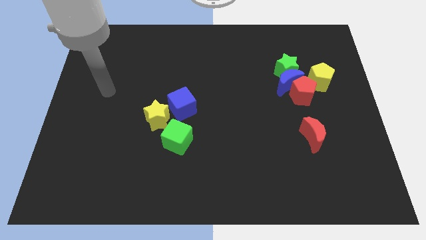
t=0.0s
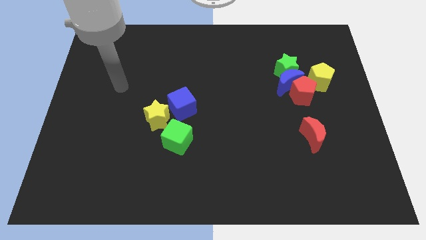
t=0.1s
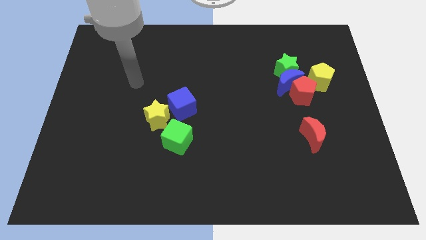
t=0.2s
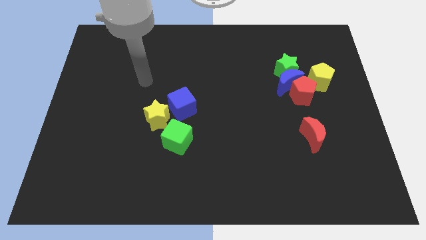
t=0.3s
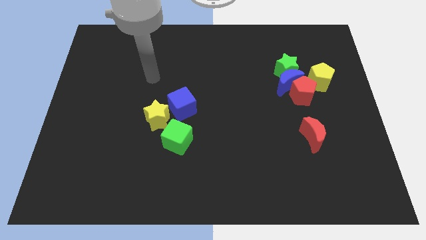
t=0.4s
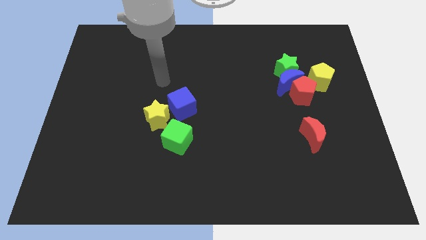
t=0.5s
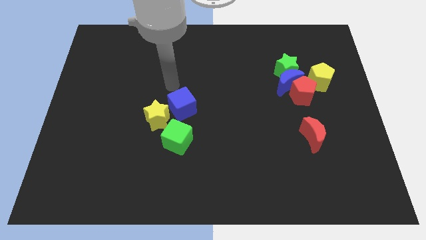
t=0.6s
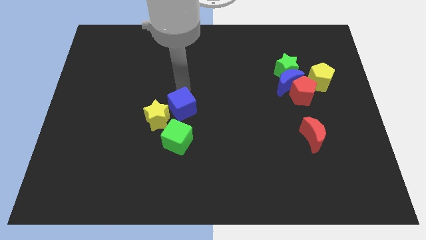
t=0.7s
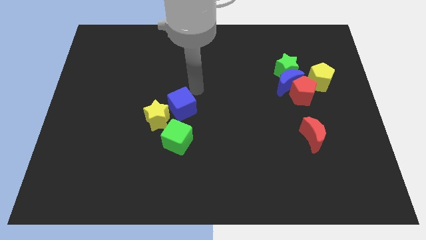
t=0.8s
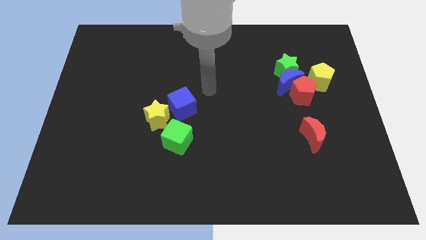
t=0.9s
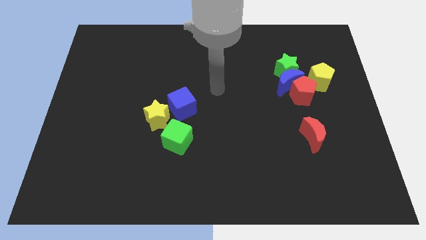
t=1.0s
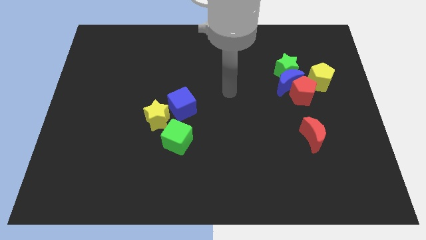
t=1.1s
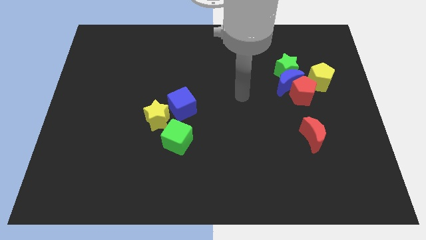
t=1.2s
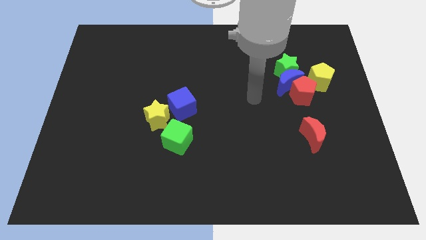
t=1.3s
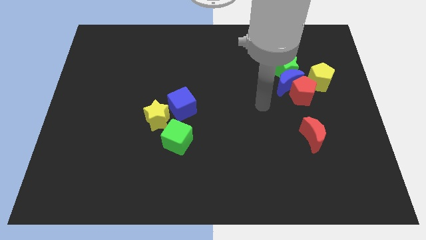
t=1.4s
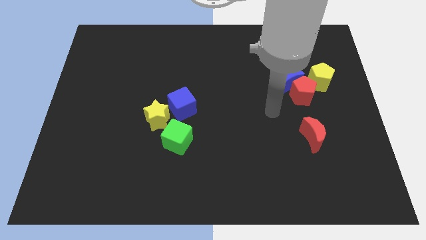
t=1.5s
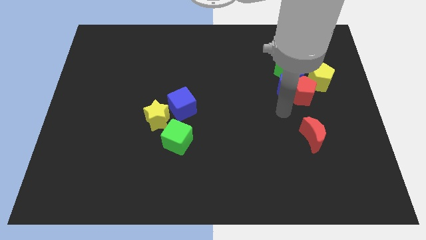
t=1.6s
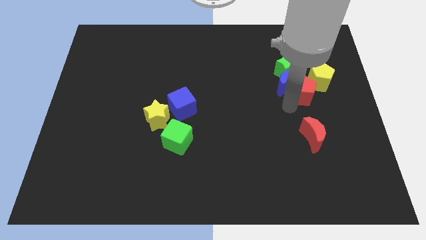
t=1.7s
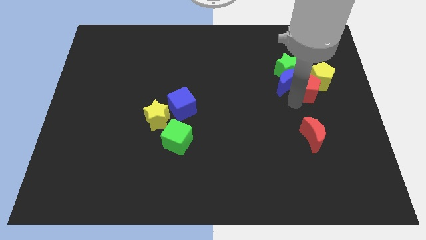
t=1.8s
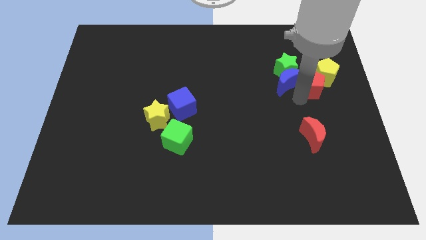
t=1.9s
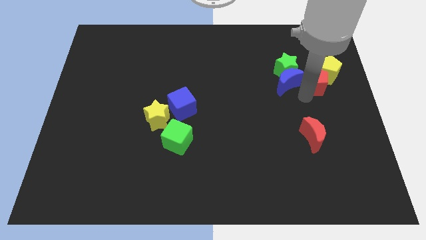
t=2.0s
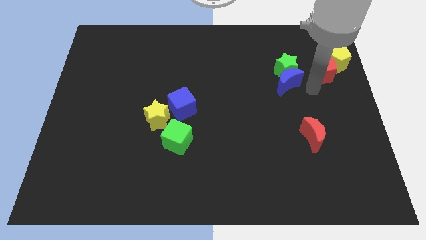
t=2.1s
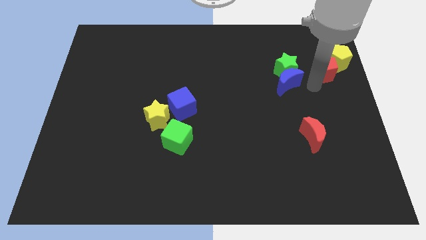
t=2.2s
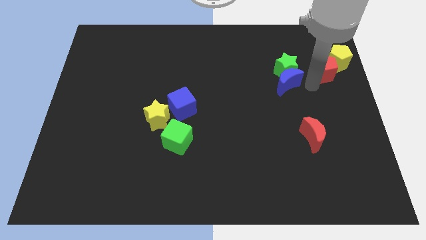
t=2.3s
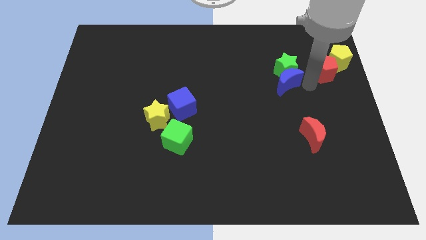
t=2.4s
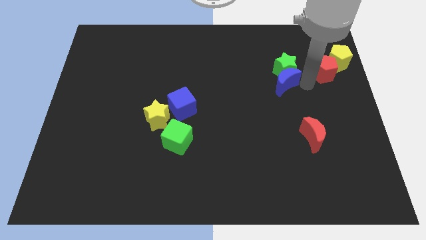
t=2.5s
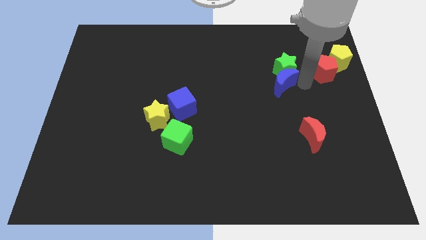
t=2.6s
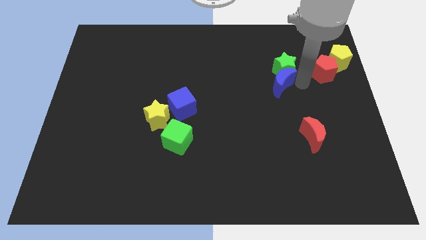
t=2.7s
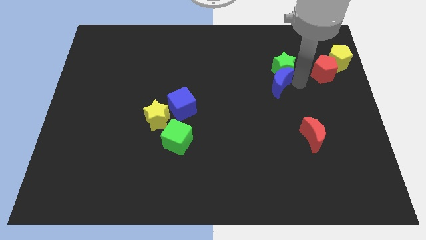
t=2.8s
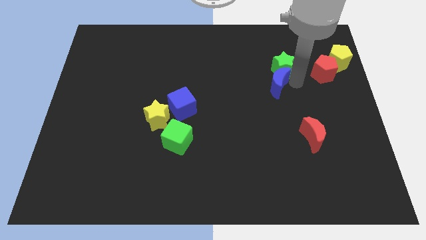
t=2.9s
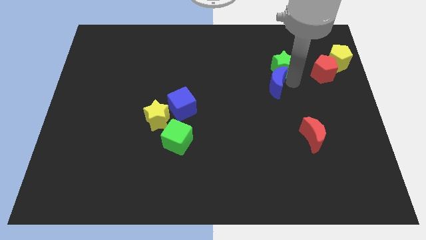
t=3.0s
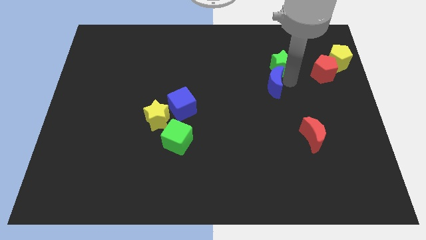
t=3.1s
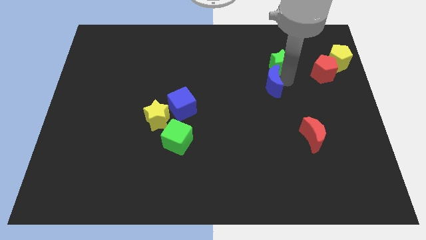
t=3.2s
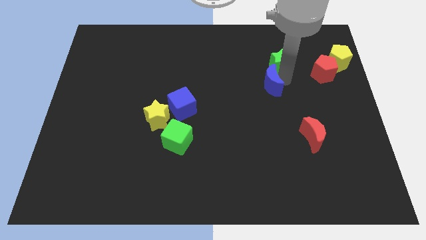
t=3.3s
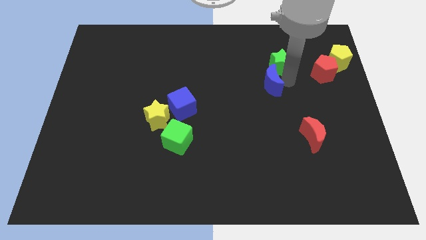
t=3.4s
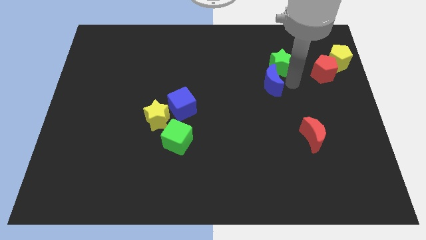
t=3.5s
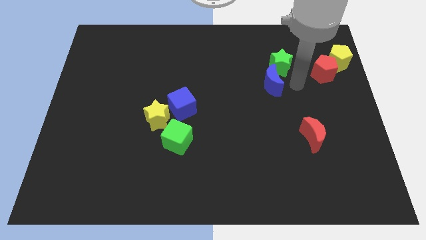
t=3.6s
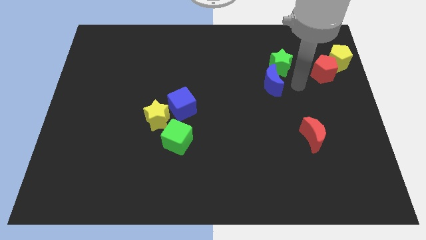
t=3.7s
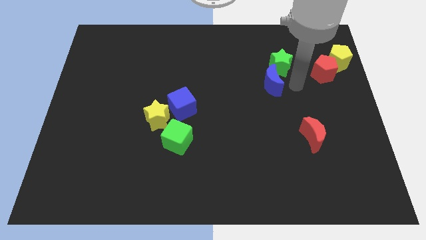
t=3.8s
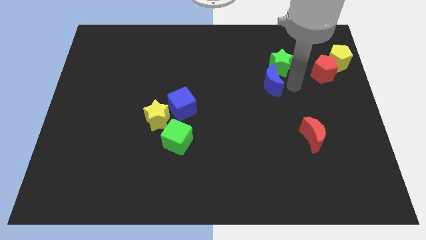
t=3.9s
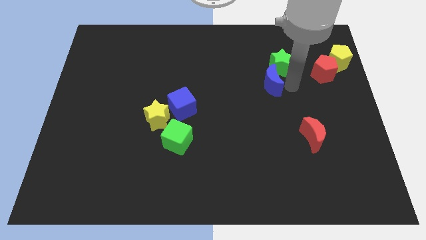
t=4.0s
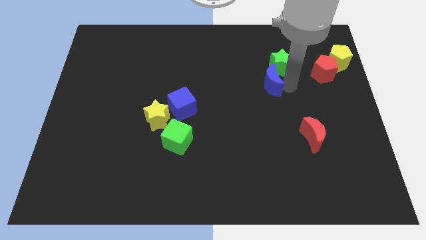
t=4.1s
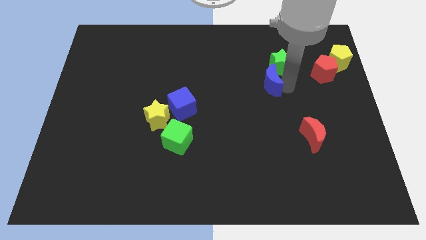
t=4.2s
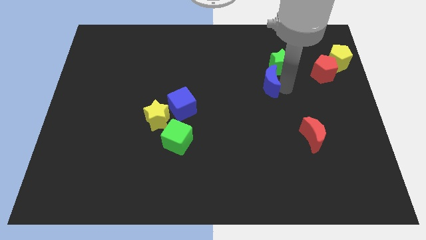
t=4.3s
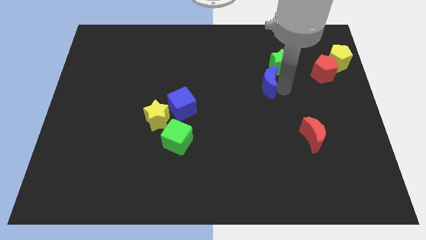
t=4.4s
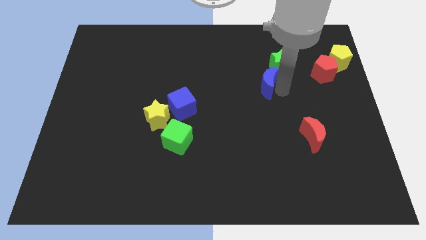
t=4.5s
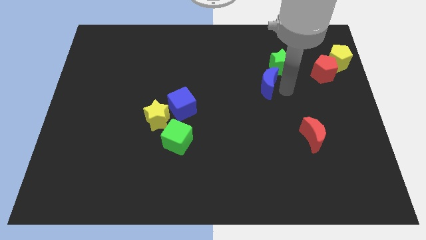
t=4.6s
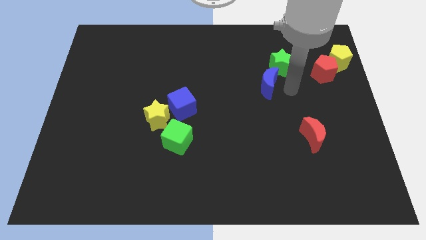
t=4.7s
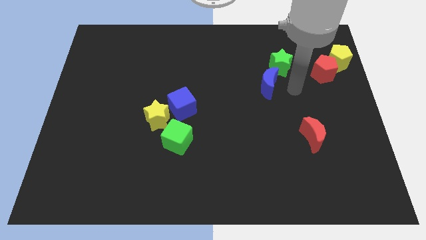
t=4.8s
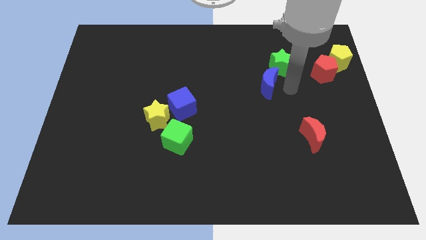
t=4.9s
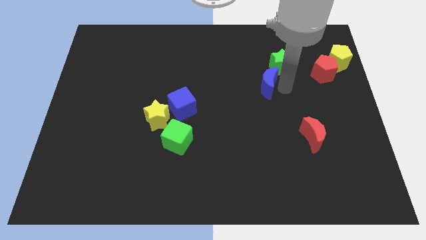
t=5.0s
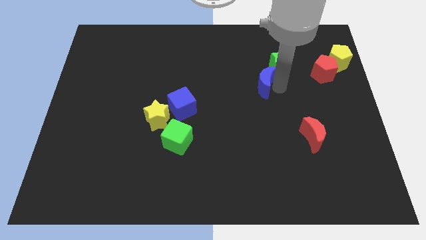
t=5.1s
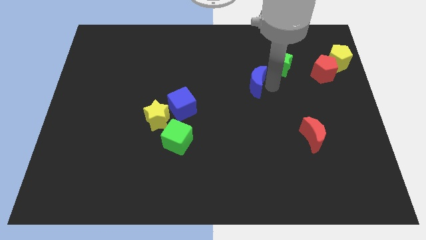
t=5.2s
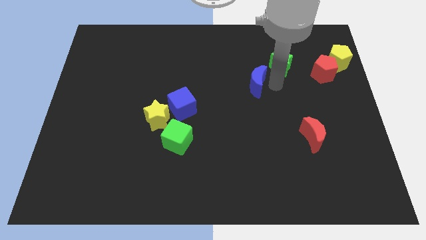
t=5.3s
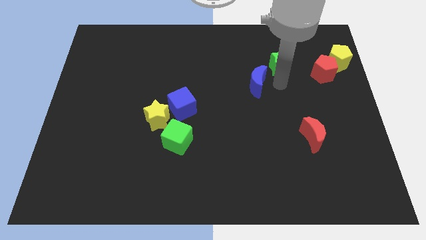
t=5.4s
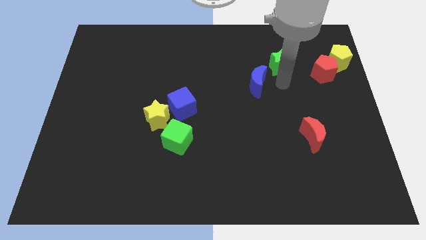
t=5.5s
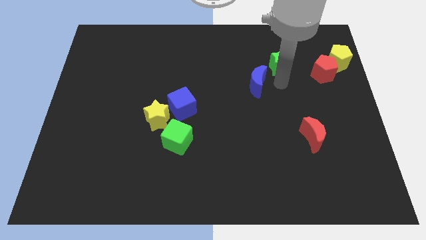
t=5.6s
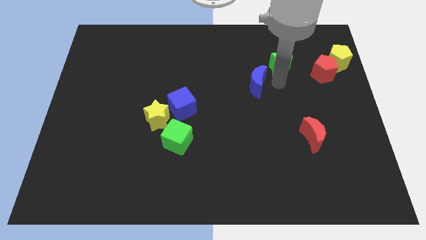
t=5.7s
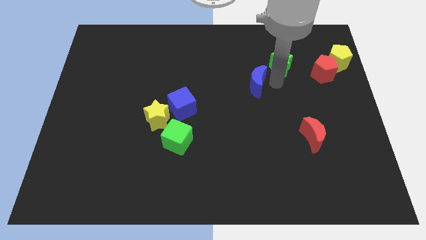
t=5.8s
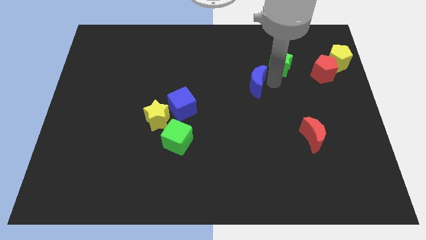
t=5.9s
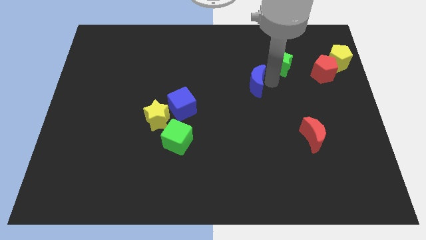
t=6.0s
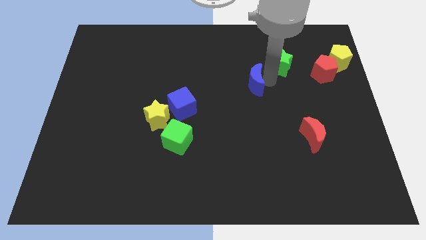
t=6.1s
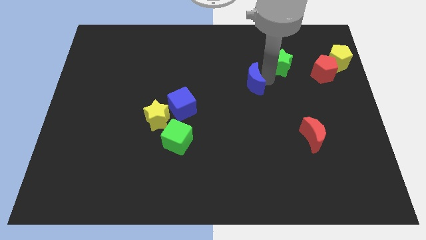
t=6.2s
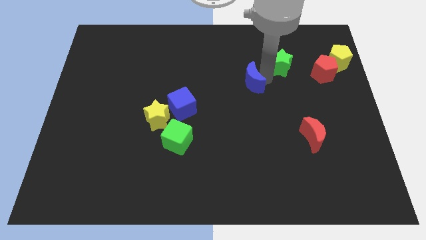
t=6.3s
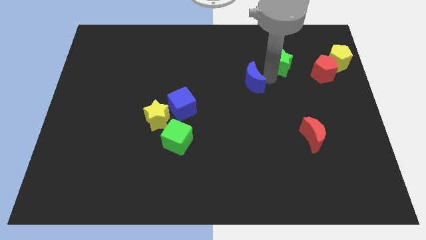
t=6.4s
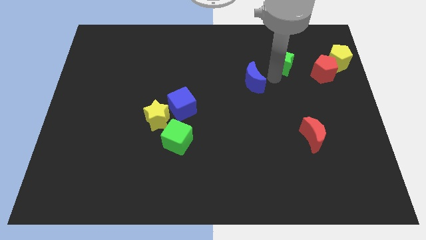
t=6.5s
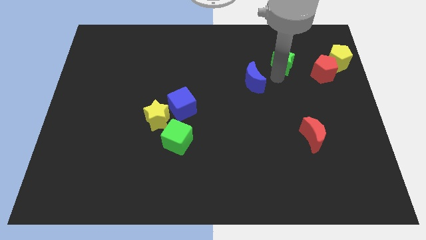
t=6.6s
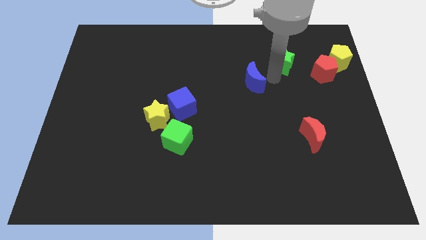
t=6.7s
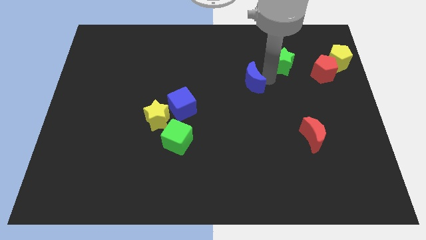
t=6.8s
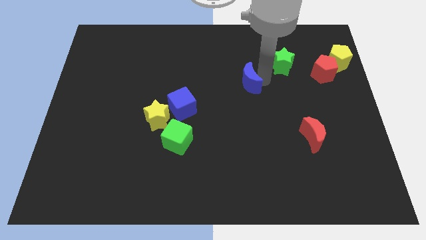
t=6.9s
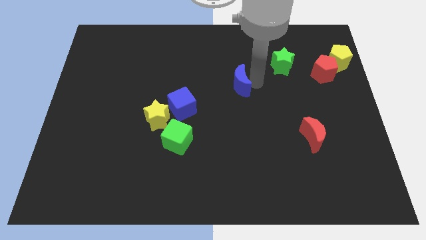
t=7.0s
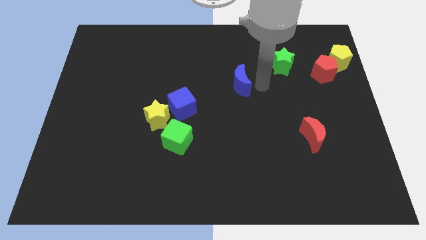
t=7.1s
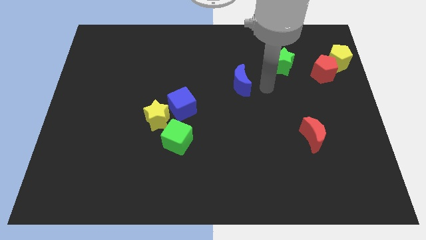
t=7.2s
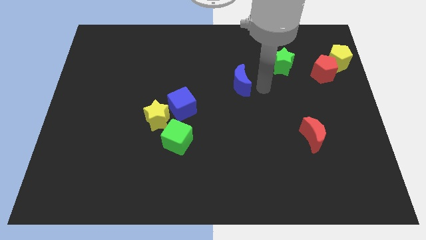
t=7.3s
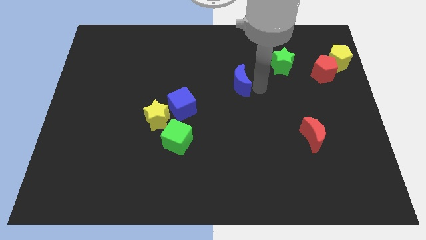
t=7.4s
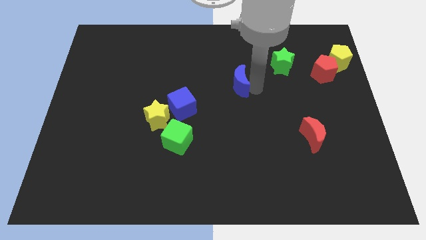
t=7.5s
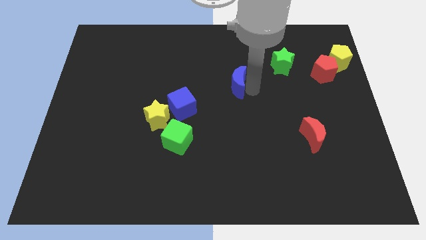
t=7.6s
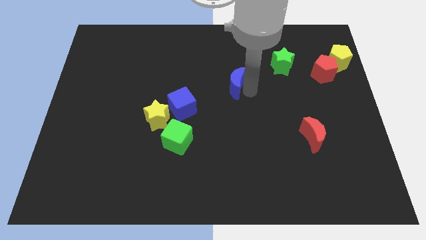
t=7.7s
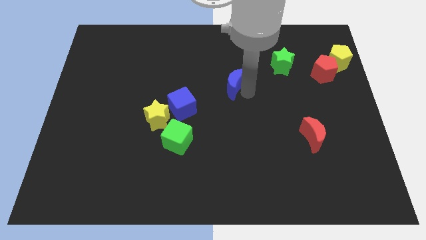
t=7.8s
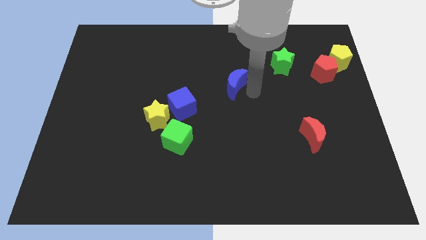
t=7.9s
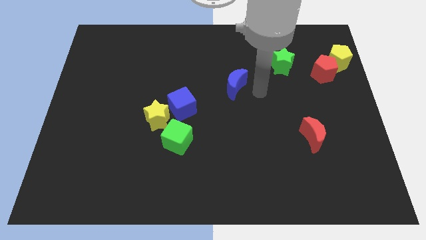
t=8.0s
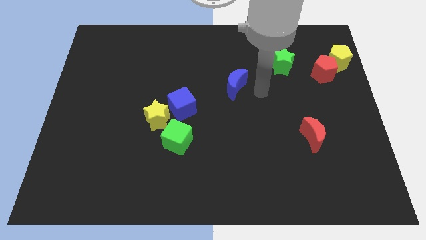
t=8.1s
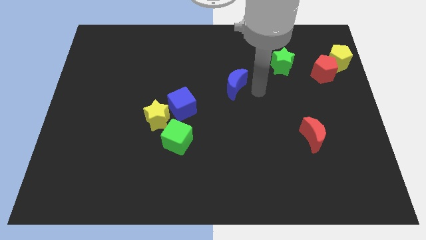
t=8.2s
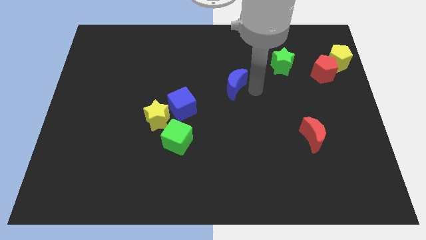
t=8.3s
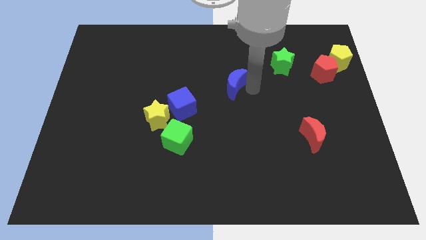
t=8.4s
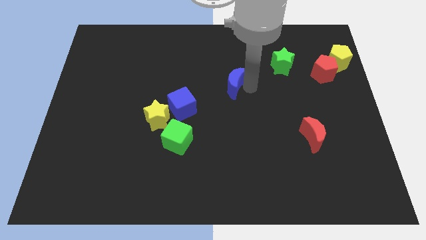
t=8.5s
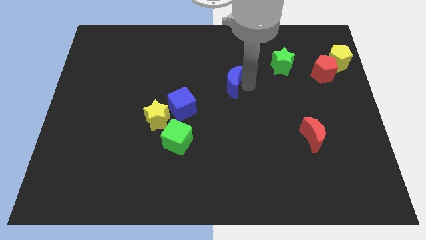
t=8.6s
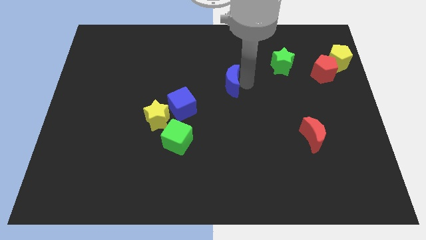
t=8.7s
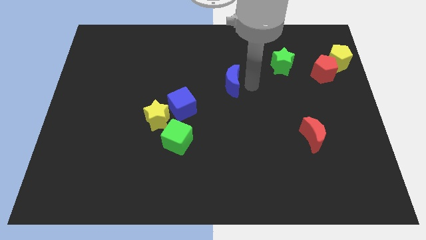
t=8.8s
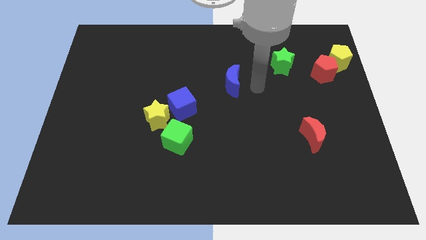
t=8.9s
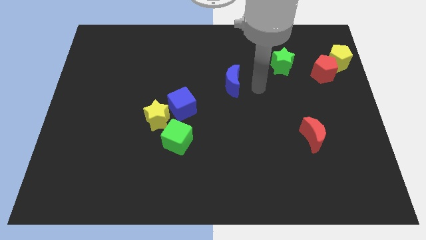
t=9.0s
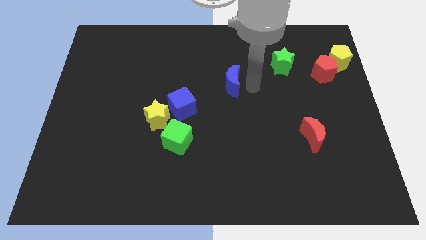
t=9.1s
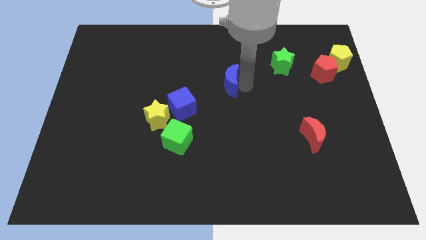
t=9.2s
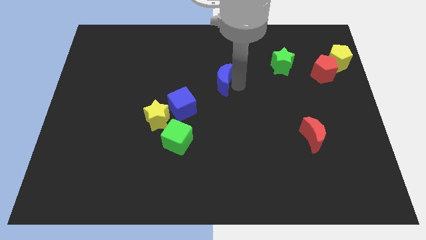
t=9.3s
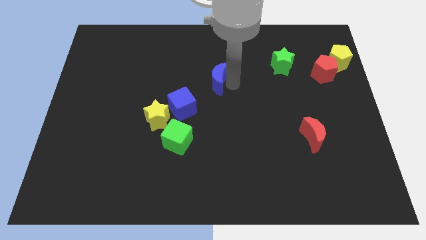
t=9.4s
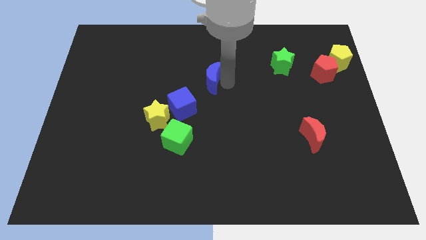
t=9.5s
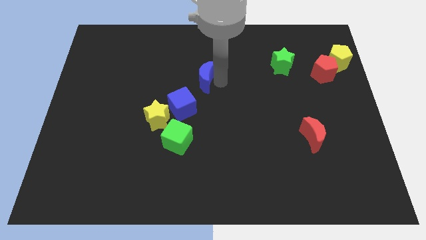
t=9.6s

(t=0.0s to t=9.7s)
move the blue moon to the left
